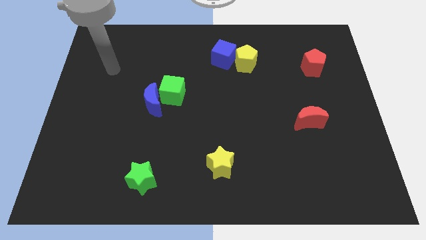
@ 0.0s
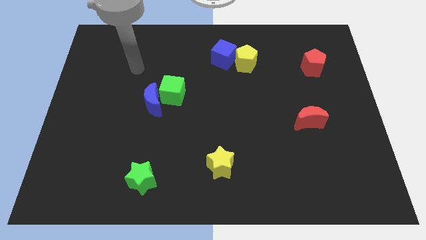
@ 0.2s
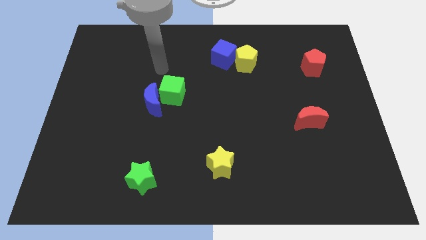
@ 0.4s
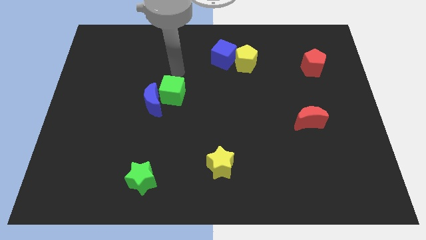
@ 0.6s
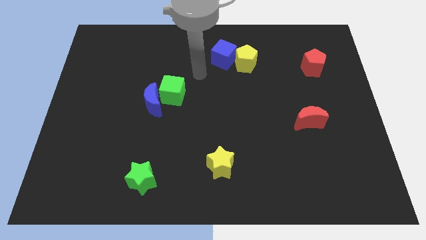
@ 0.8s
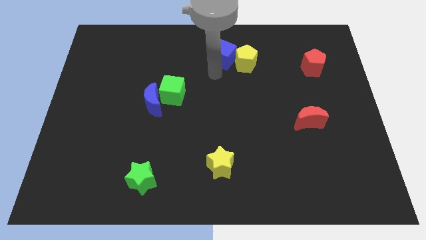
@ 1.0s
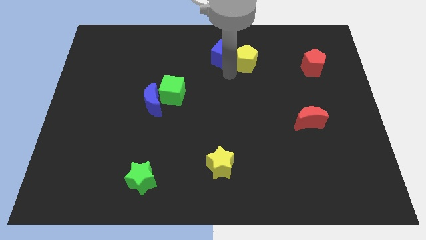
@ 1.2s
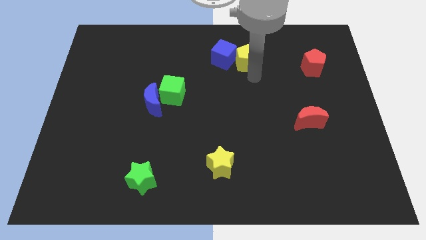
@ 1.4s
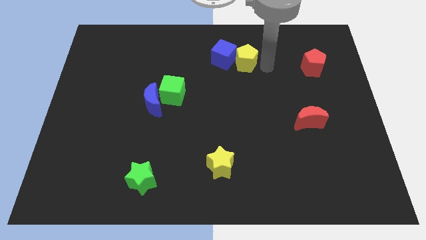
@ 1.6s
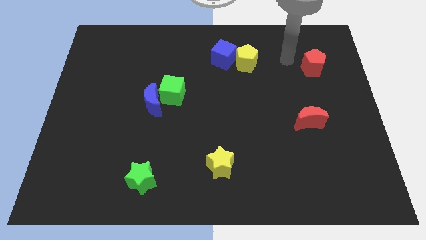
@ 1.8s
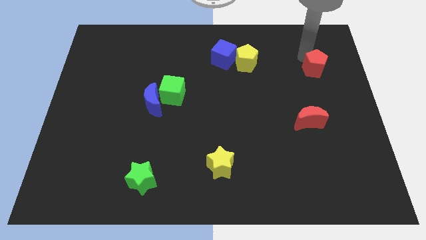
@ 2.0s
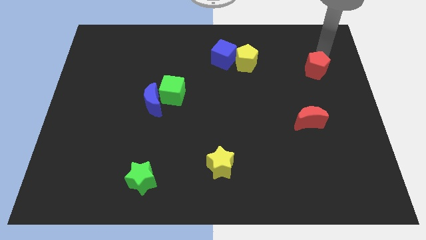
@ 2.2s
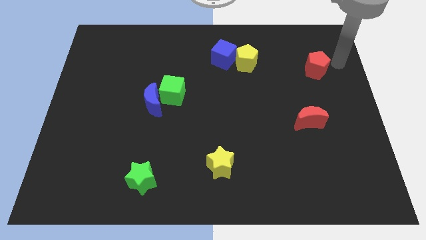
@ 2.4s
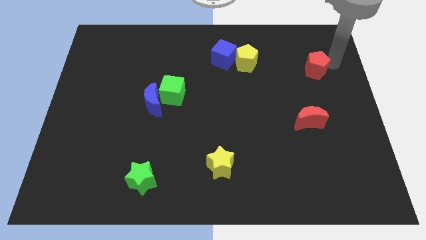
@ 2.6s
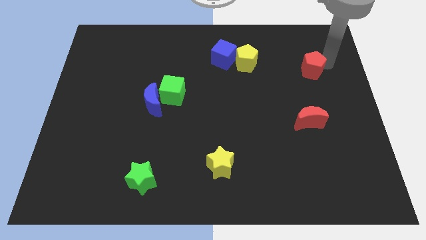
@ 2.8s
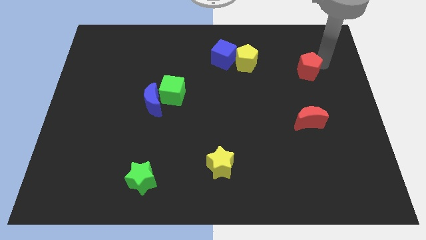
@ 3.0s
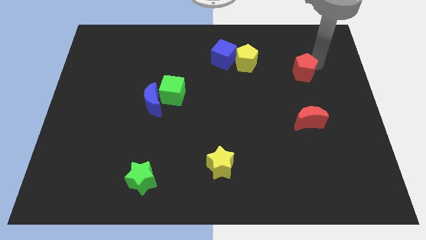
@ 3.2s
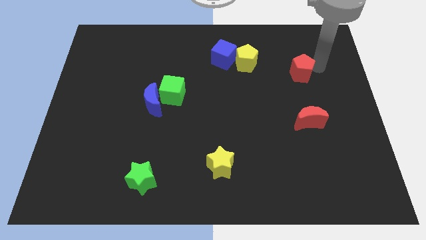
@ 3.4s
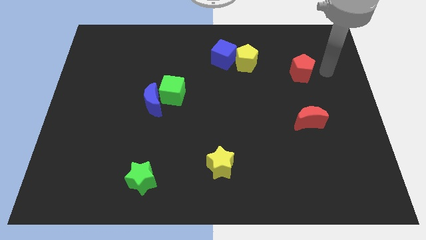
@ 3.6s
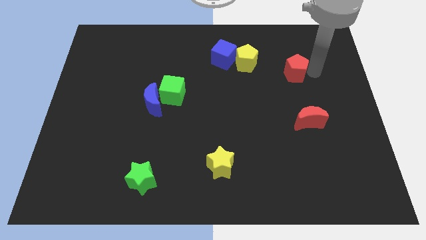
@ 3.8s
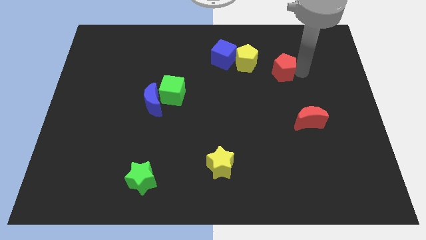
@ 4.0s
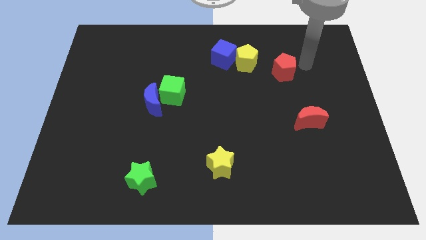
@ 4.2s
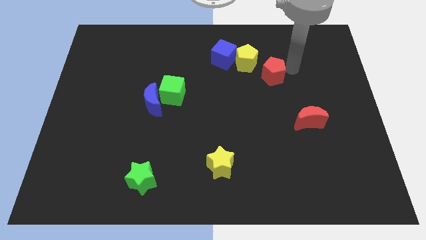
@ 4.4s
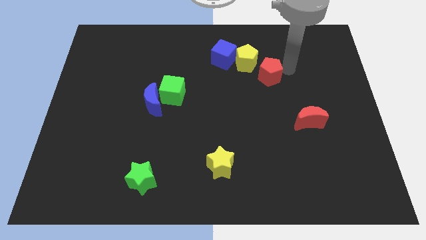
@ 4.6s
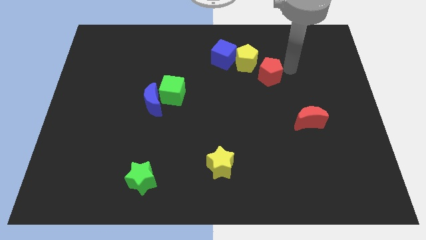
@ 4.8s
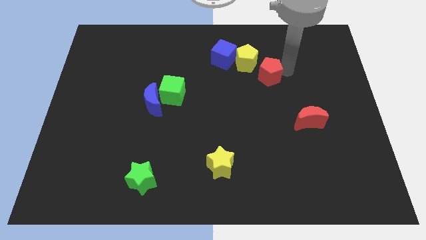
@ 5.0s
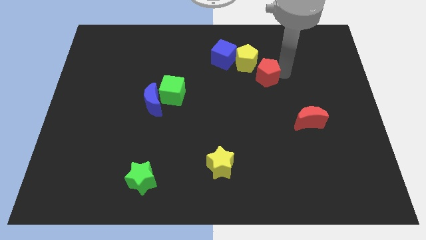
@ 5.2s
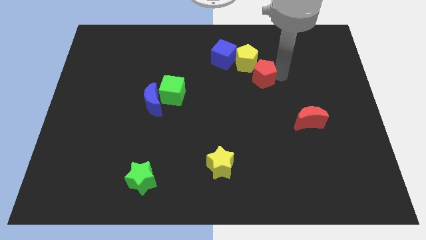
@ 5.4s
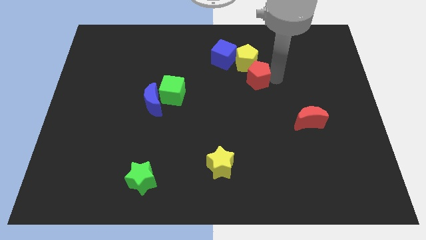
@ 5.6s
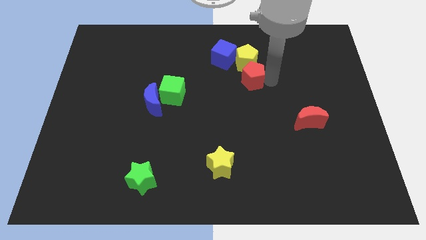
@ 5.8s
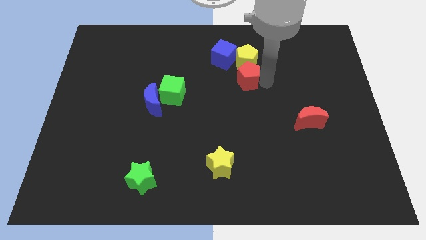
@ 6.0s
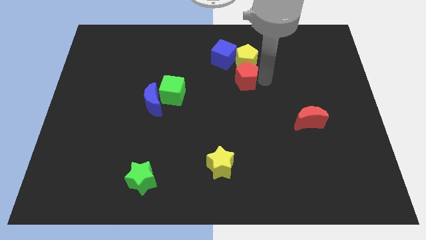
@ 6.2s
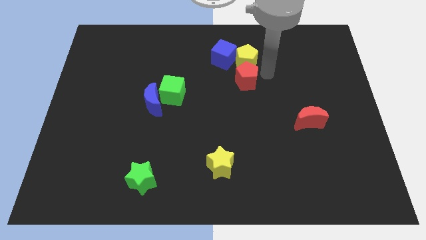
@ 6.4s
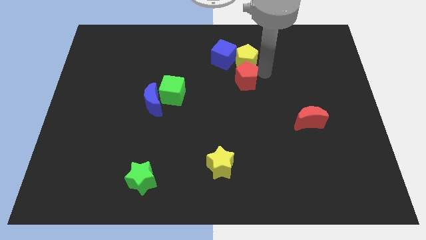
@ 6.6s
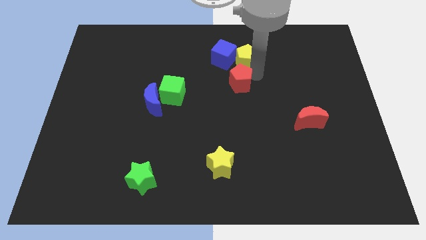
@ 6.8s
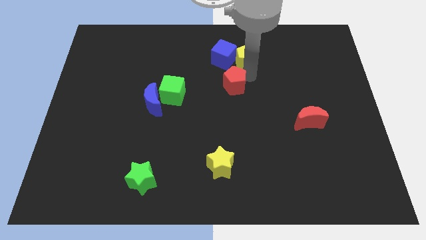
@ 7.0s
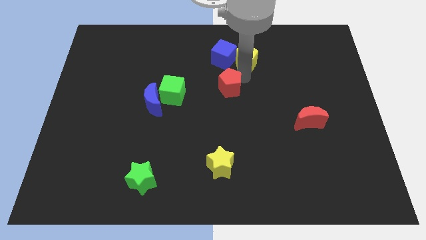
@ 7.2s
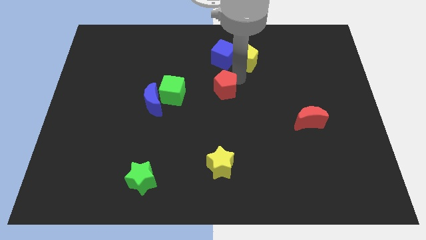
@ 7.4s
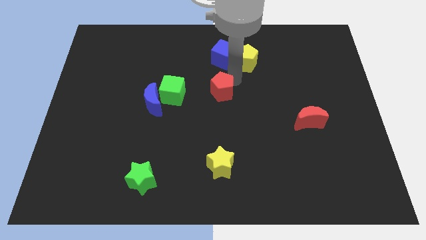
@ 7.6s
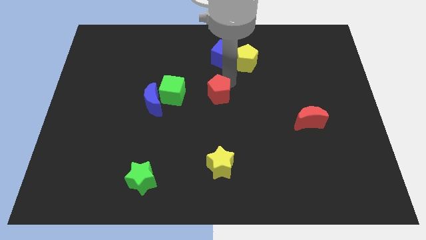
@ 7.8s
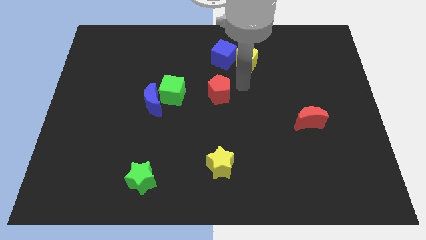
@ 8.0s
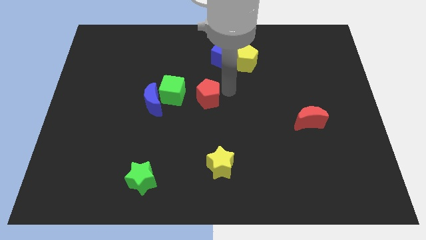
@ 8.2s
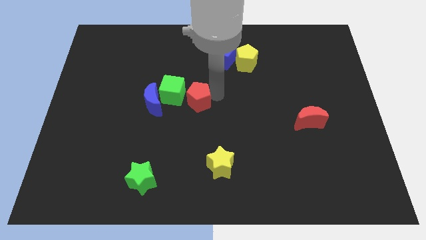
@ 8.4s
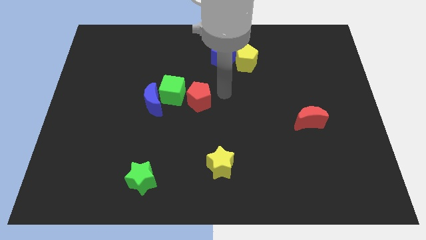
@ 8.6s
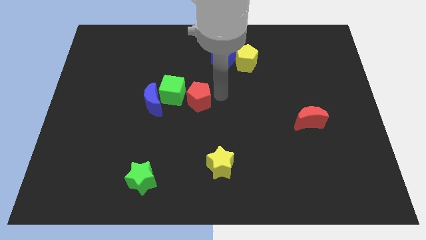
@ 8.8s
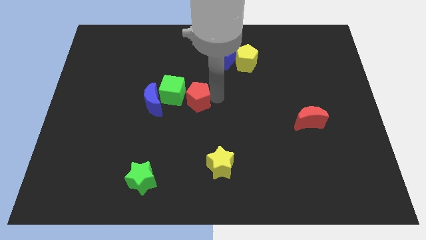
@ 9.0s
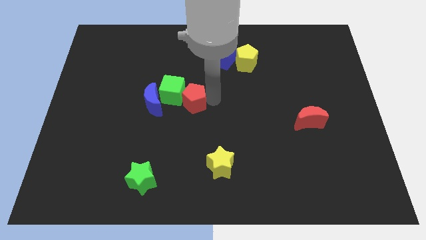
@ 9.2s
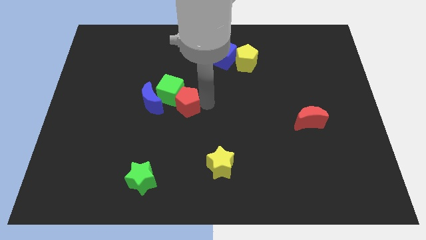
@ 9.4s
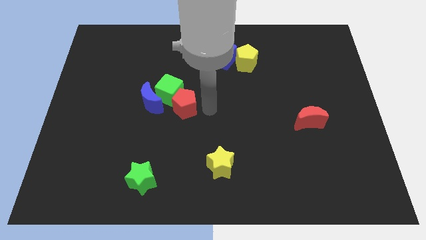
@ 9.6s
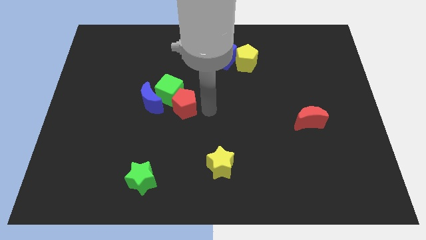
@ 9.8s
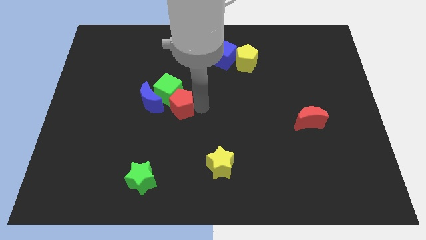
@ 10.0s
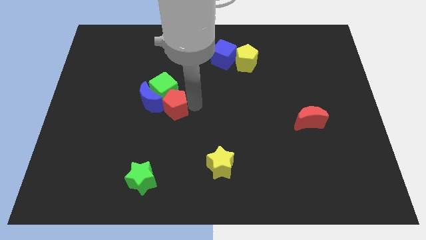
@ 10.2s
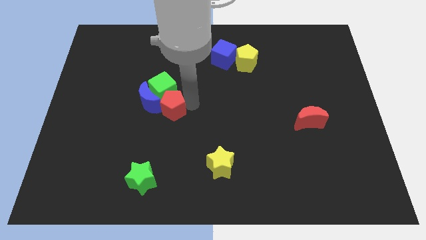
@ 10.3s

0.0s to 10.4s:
push the red pentagon next to the blue moon

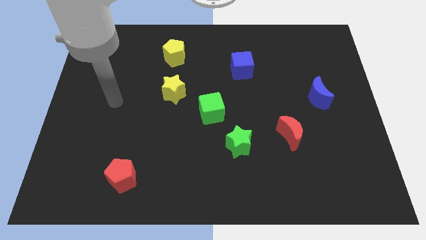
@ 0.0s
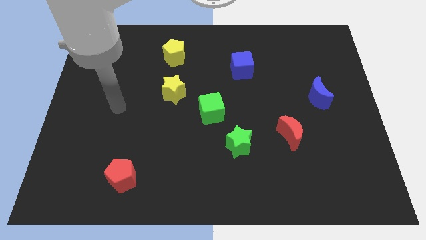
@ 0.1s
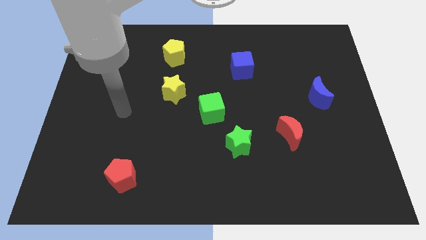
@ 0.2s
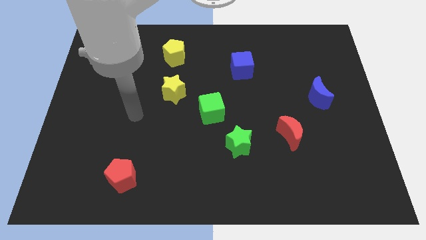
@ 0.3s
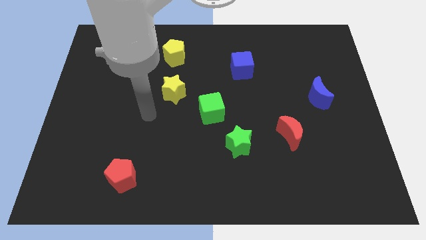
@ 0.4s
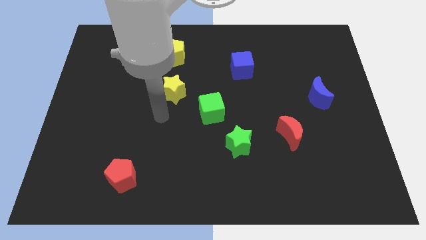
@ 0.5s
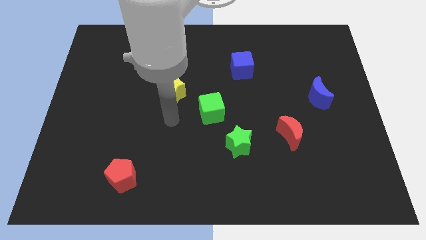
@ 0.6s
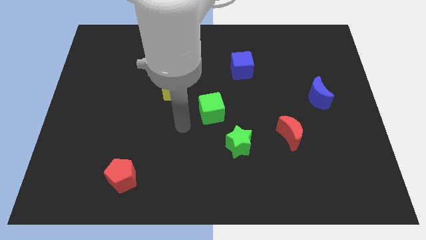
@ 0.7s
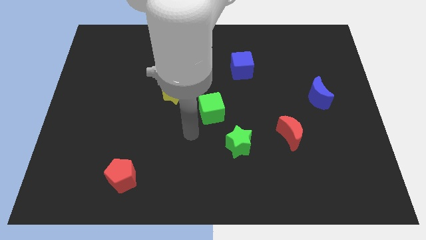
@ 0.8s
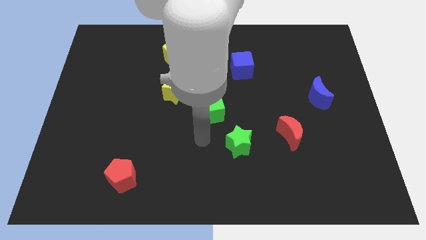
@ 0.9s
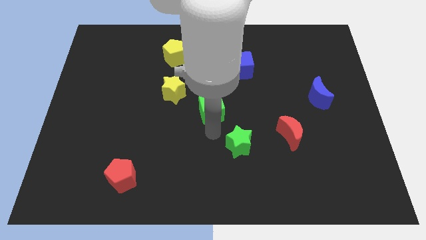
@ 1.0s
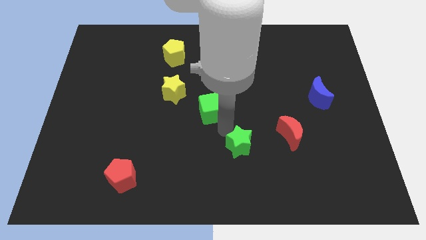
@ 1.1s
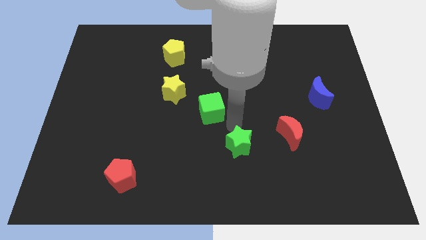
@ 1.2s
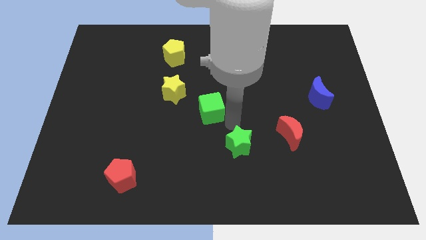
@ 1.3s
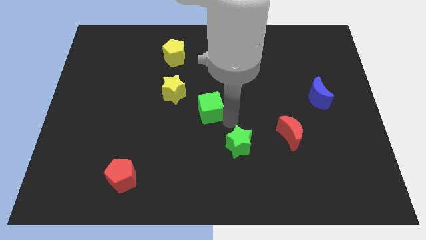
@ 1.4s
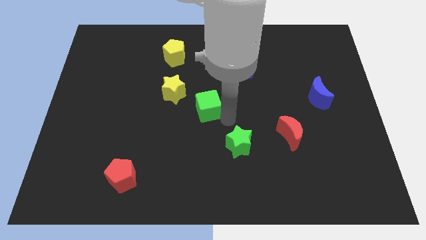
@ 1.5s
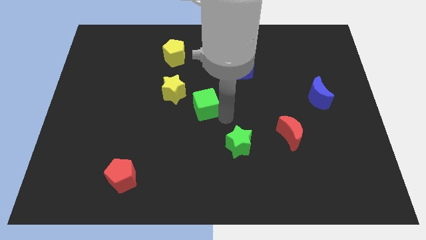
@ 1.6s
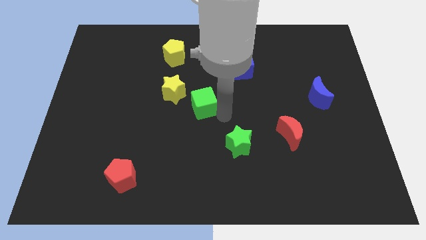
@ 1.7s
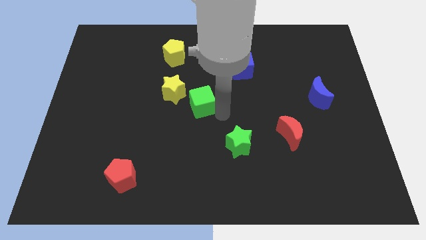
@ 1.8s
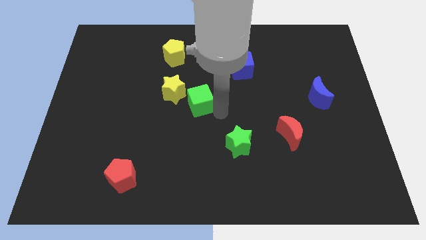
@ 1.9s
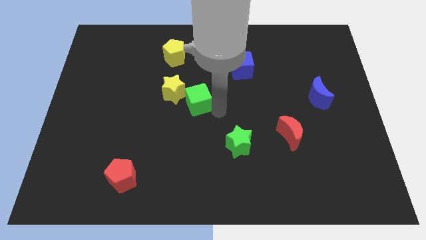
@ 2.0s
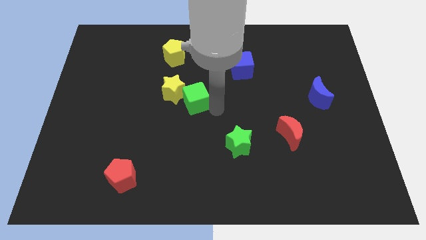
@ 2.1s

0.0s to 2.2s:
move the green cube close to the yellow star
